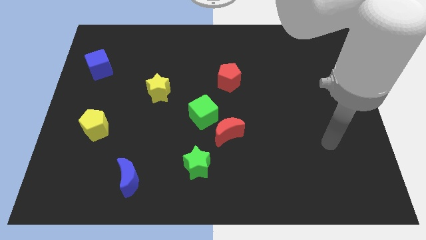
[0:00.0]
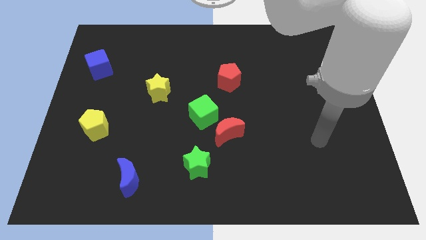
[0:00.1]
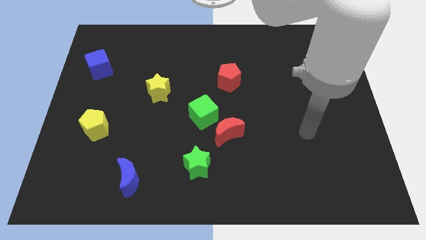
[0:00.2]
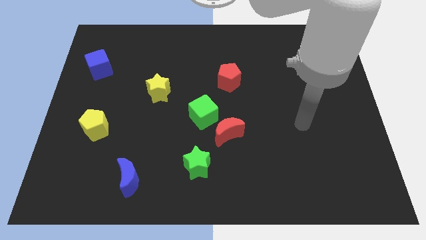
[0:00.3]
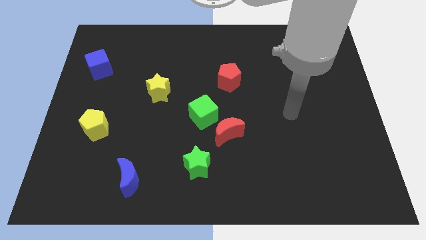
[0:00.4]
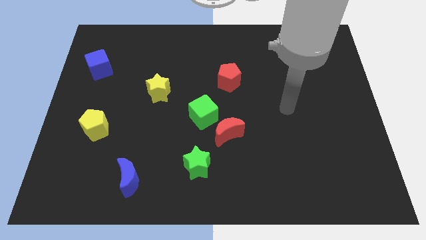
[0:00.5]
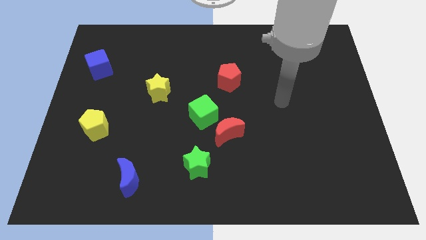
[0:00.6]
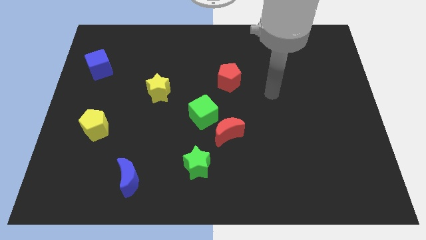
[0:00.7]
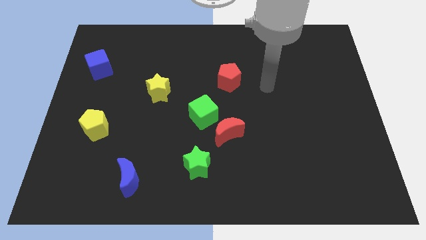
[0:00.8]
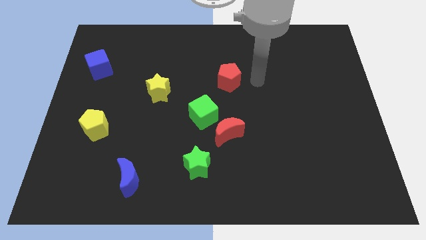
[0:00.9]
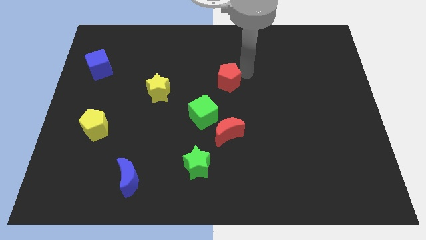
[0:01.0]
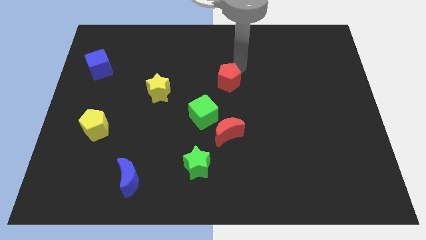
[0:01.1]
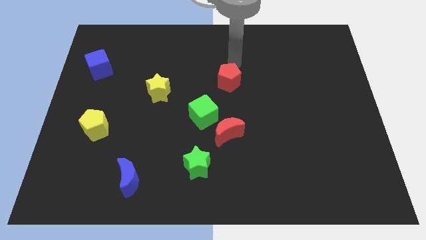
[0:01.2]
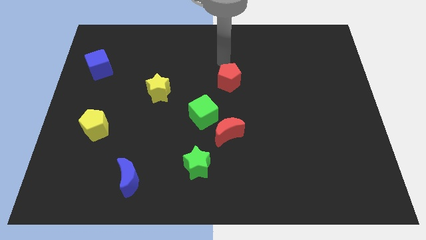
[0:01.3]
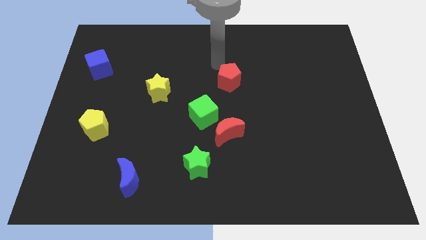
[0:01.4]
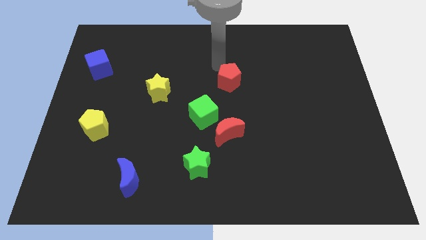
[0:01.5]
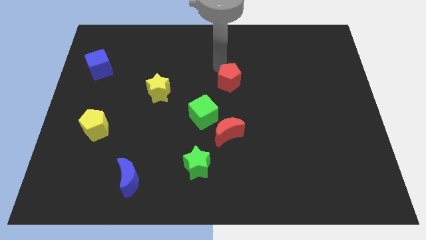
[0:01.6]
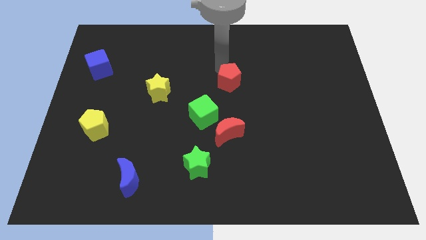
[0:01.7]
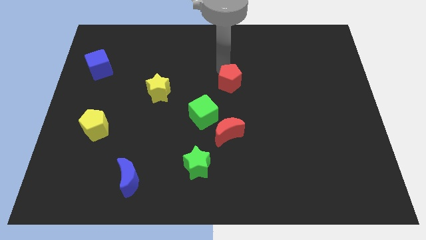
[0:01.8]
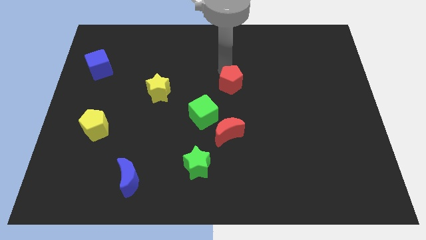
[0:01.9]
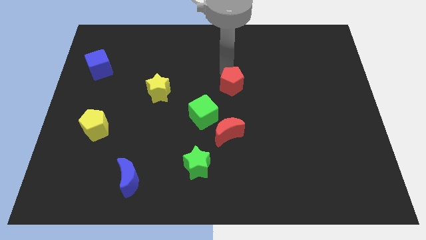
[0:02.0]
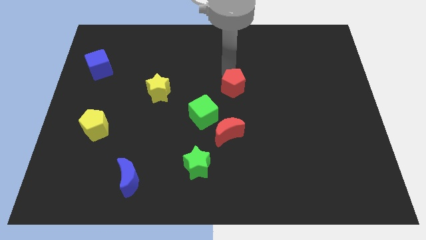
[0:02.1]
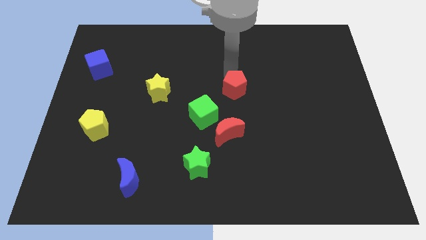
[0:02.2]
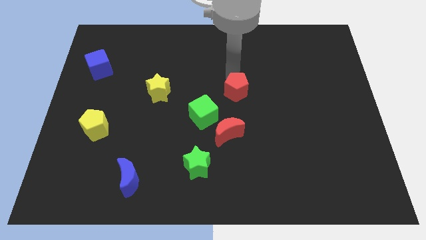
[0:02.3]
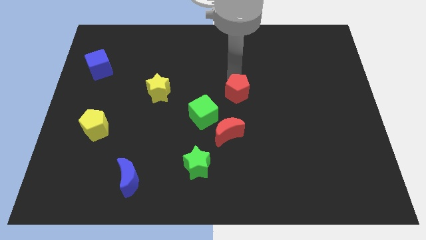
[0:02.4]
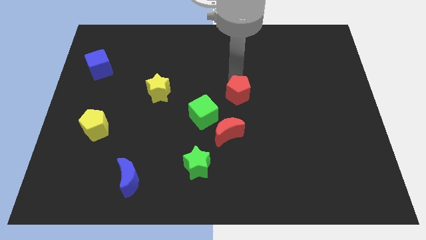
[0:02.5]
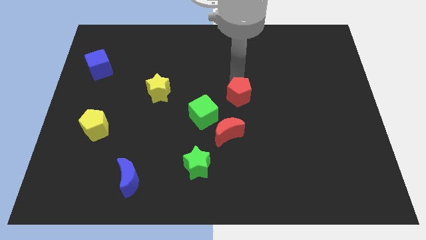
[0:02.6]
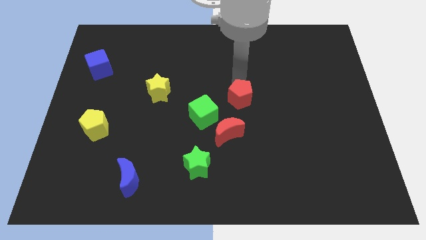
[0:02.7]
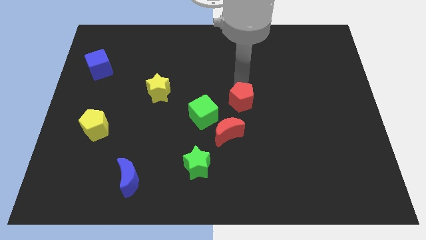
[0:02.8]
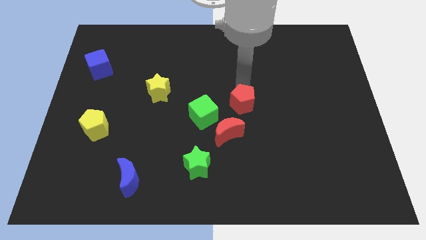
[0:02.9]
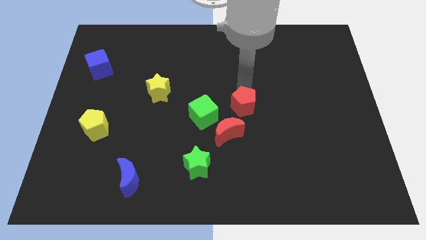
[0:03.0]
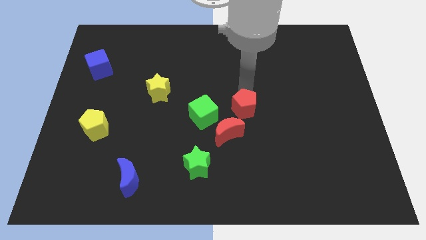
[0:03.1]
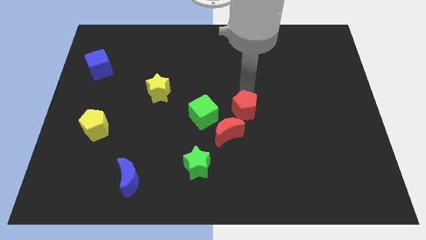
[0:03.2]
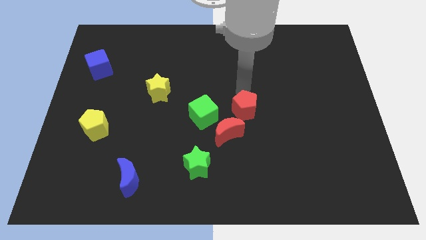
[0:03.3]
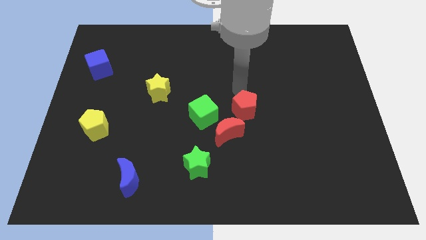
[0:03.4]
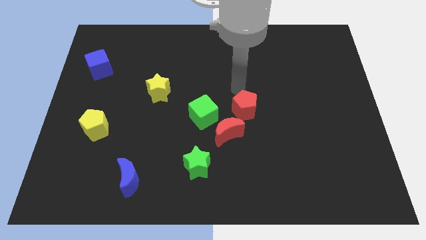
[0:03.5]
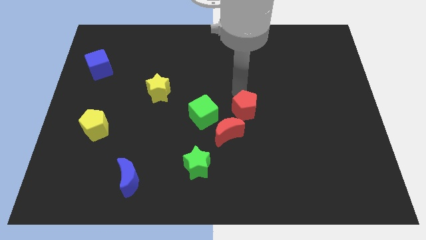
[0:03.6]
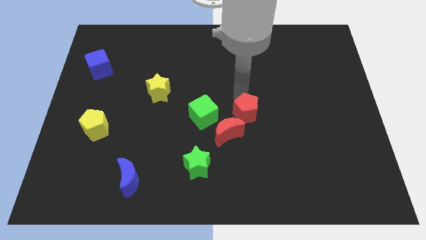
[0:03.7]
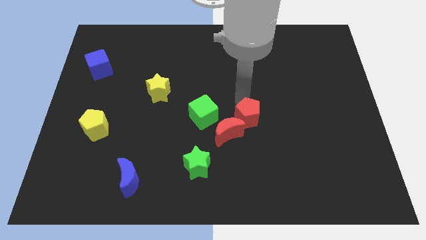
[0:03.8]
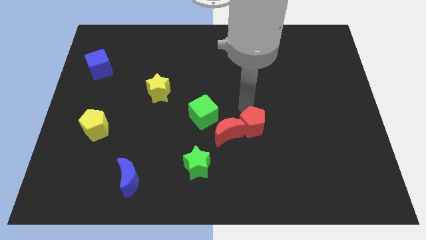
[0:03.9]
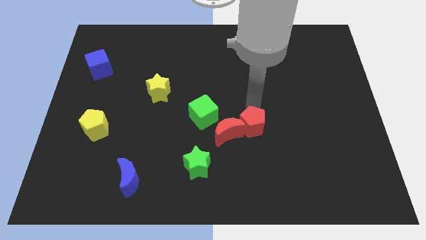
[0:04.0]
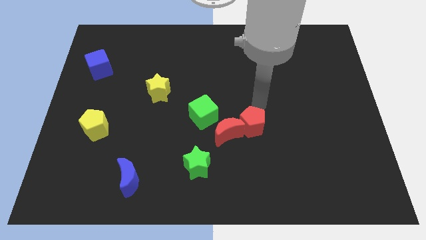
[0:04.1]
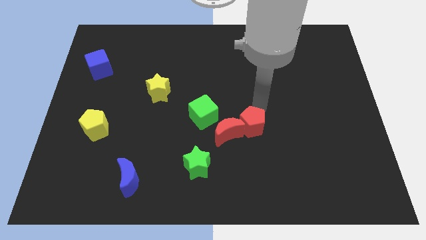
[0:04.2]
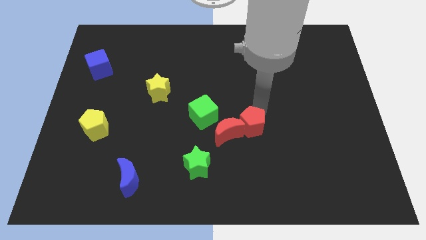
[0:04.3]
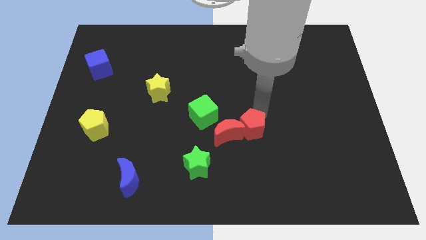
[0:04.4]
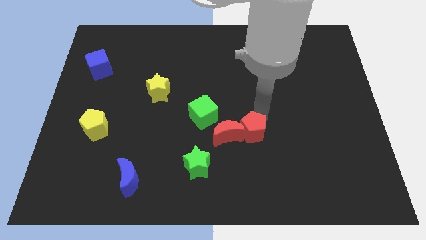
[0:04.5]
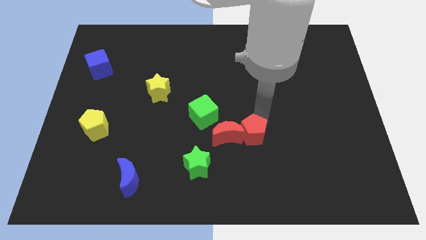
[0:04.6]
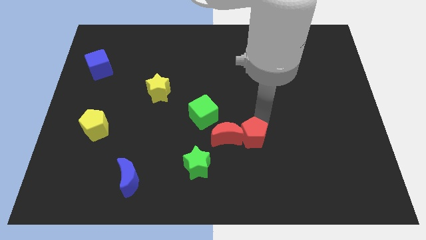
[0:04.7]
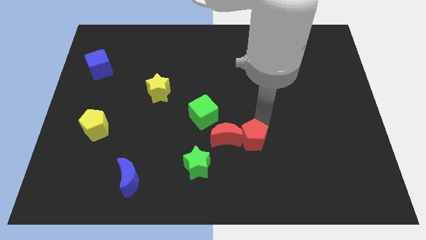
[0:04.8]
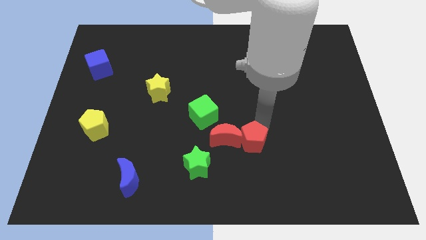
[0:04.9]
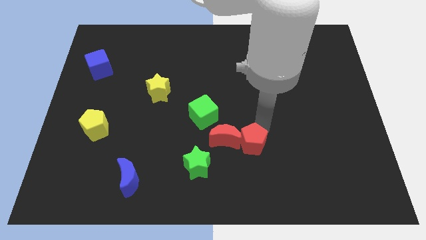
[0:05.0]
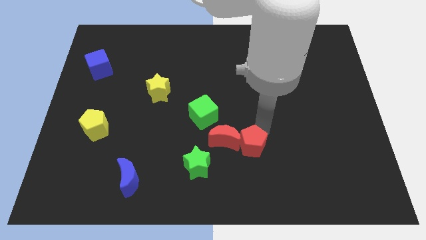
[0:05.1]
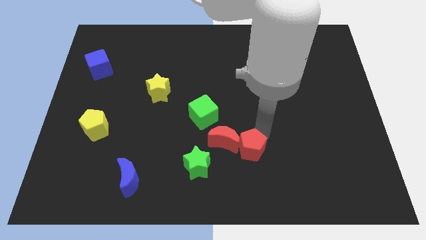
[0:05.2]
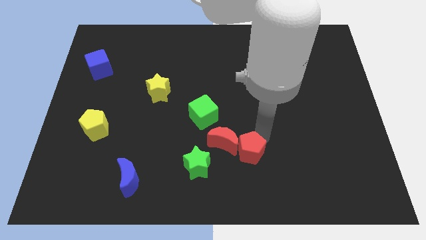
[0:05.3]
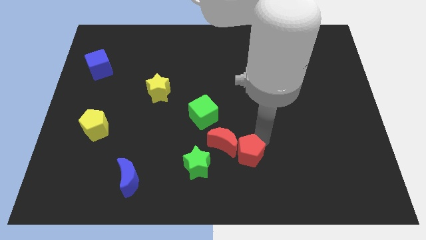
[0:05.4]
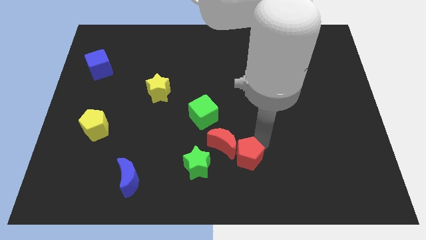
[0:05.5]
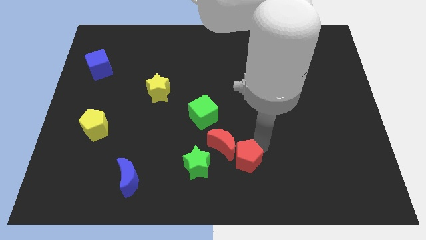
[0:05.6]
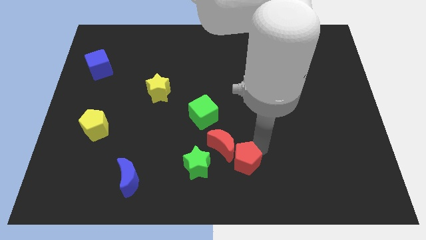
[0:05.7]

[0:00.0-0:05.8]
push the red pentagon to the bottom

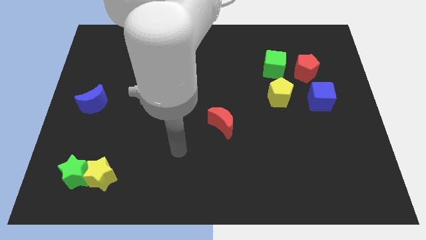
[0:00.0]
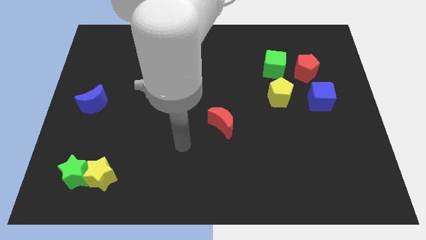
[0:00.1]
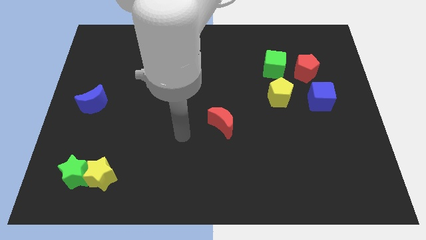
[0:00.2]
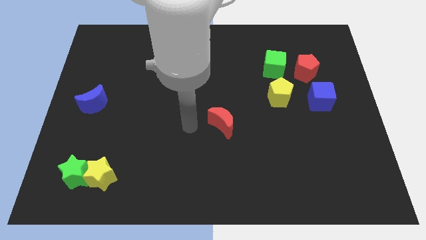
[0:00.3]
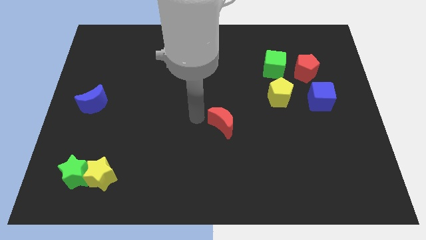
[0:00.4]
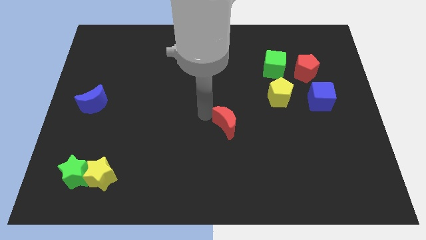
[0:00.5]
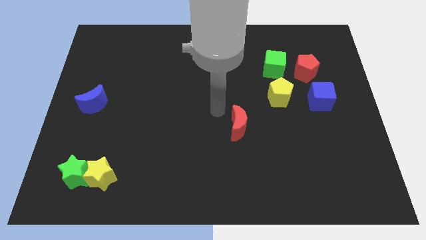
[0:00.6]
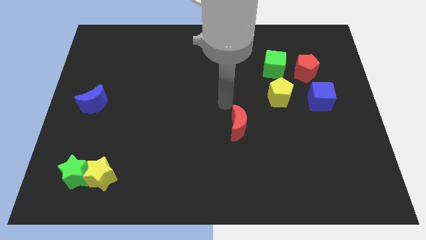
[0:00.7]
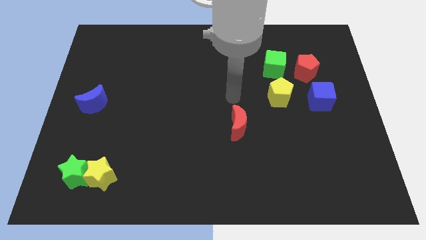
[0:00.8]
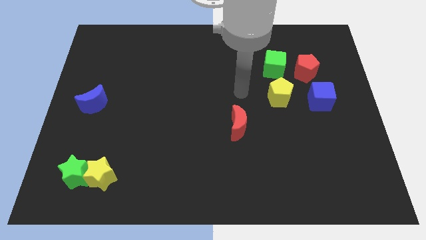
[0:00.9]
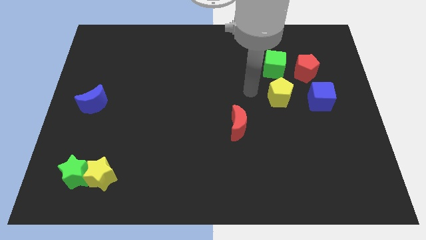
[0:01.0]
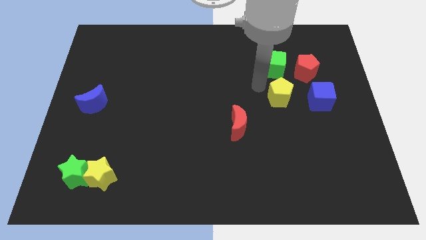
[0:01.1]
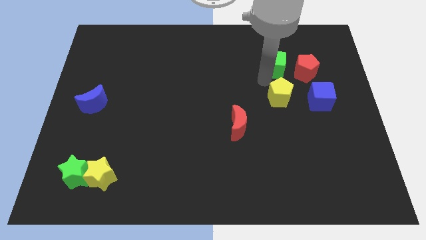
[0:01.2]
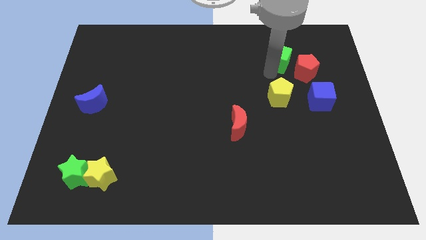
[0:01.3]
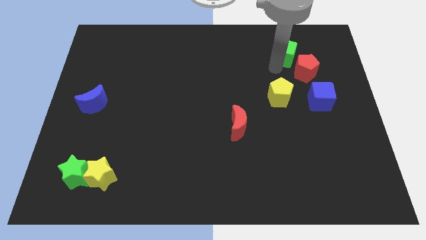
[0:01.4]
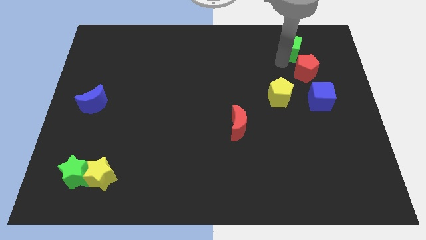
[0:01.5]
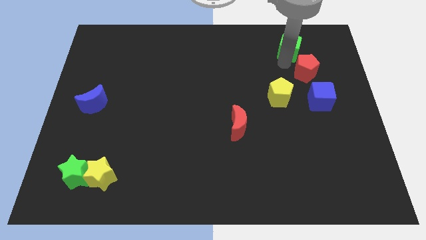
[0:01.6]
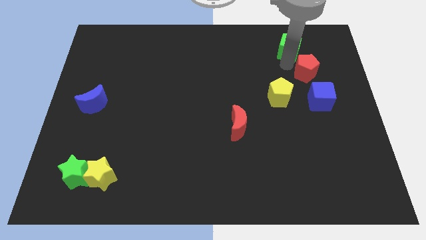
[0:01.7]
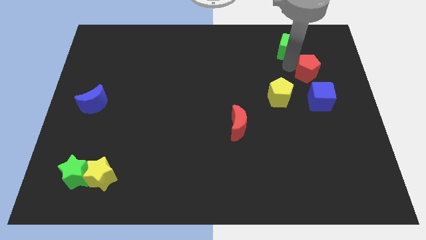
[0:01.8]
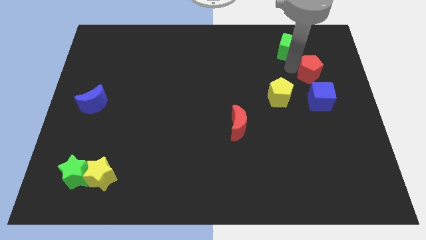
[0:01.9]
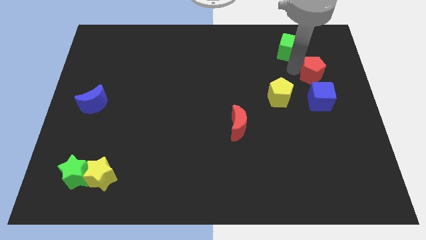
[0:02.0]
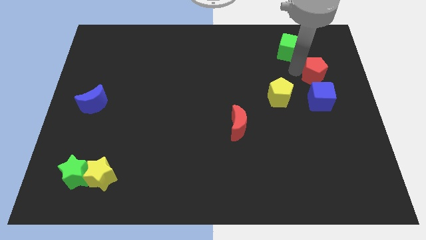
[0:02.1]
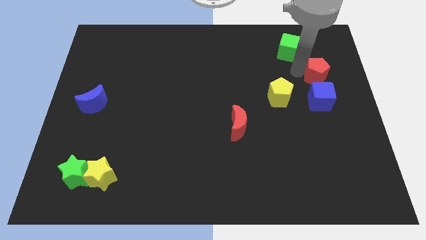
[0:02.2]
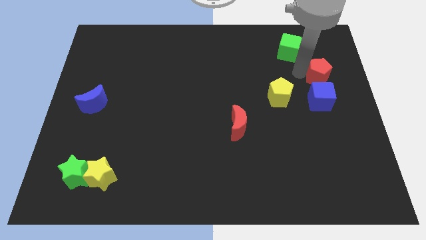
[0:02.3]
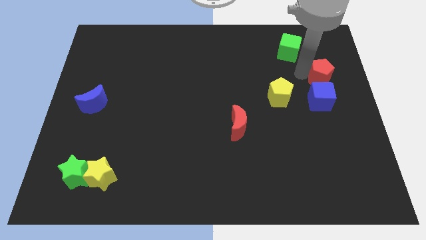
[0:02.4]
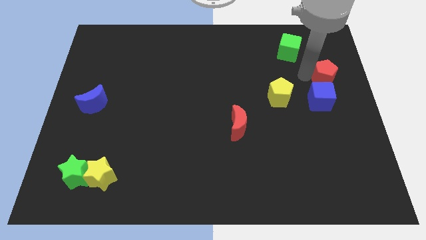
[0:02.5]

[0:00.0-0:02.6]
push the red pentagon to the right side
